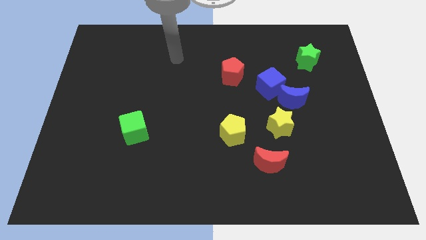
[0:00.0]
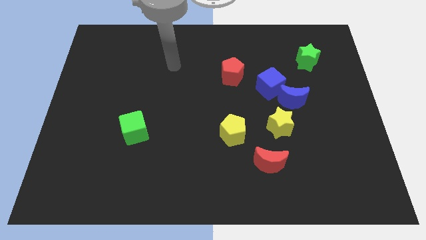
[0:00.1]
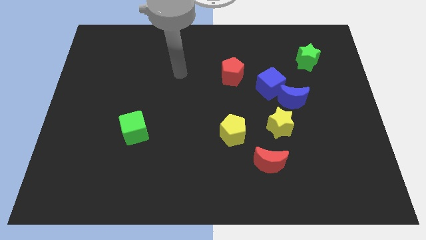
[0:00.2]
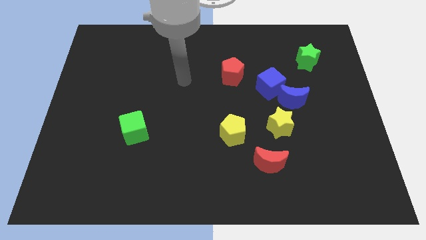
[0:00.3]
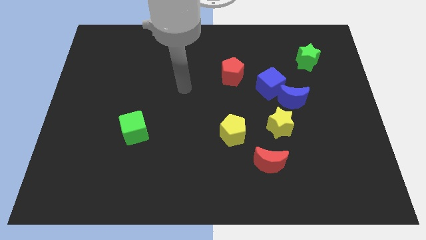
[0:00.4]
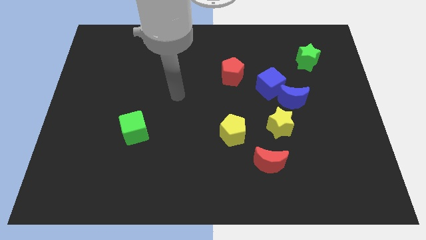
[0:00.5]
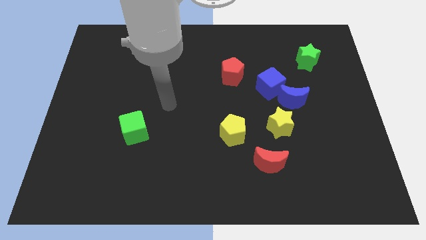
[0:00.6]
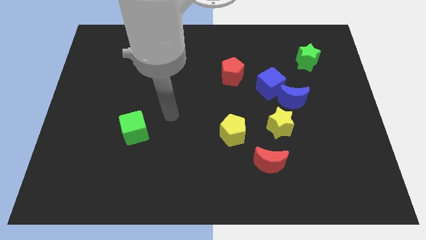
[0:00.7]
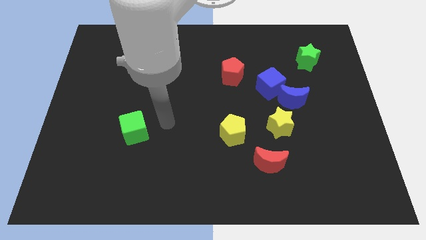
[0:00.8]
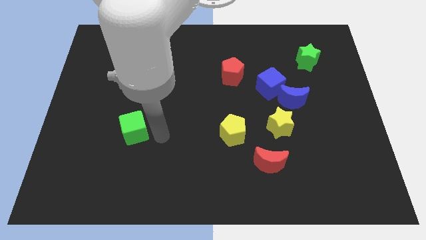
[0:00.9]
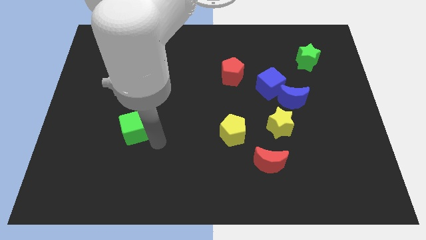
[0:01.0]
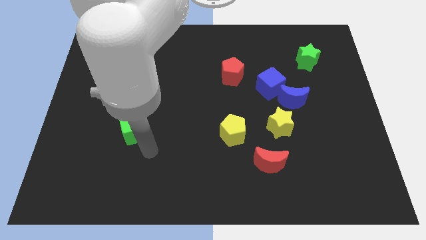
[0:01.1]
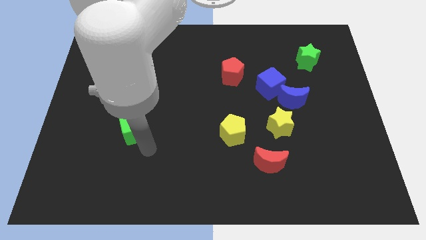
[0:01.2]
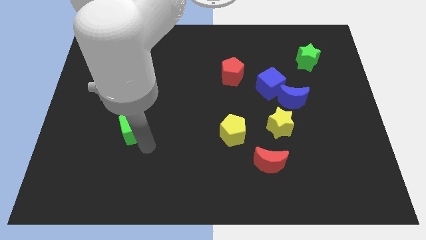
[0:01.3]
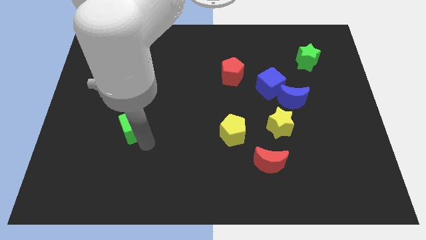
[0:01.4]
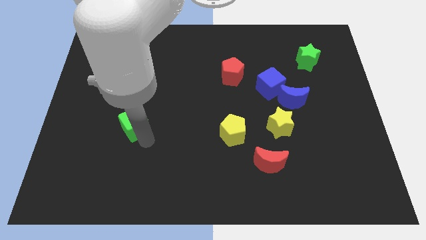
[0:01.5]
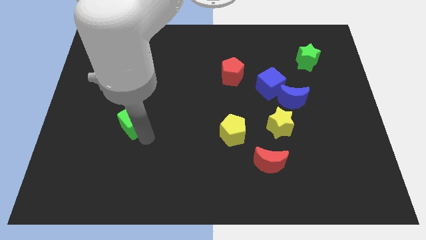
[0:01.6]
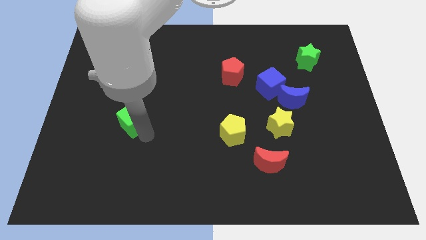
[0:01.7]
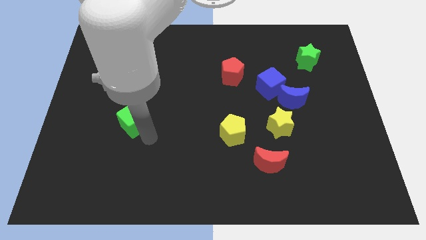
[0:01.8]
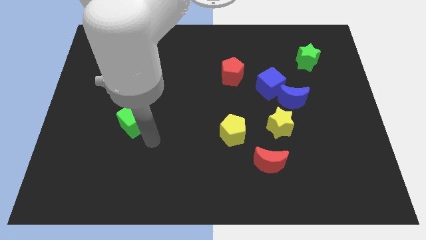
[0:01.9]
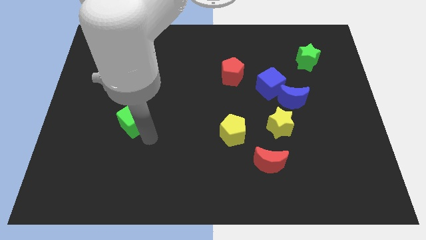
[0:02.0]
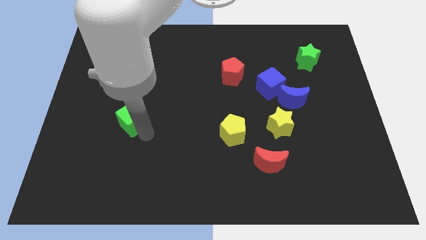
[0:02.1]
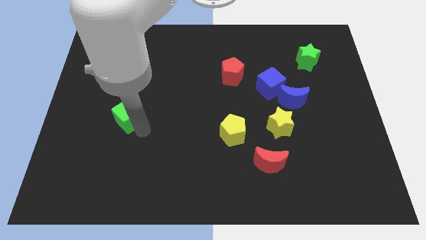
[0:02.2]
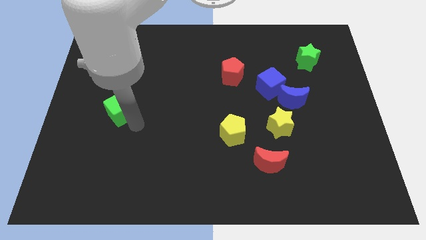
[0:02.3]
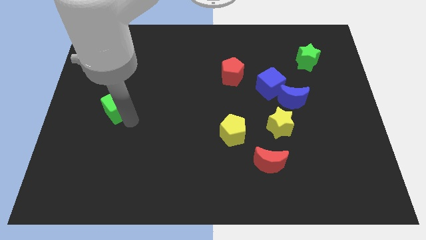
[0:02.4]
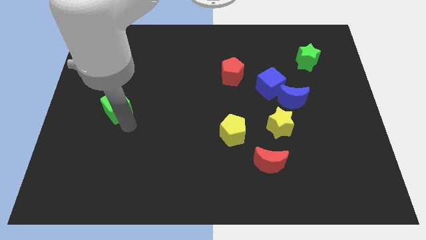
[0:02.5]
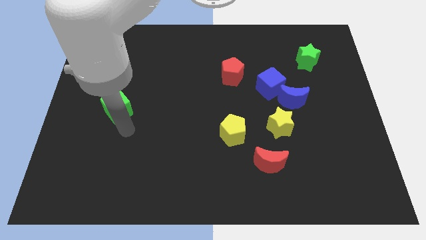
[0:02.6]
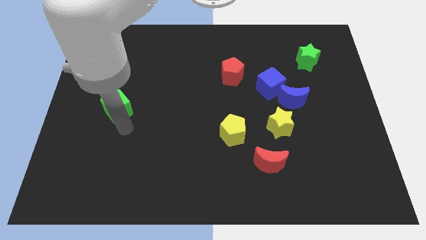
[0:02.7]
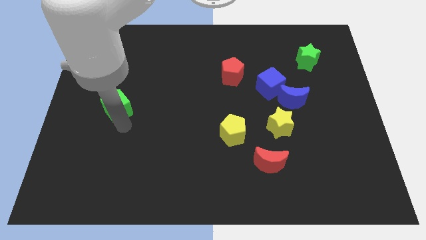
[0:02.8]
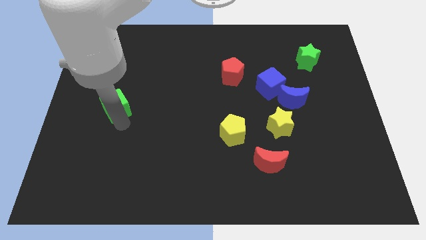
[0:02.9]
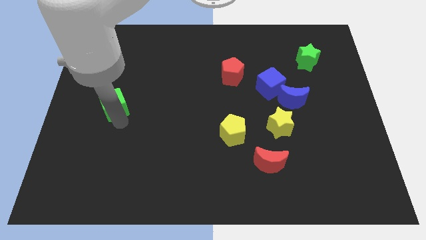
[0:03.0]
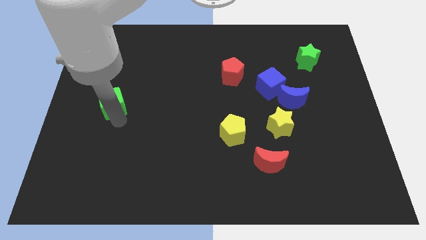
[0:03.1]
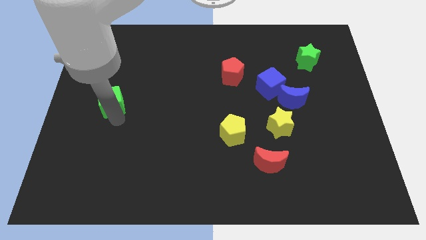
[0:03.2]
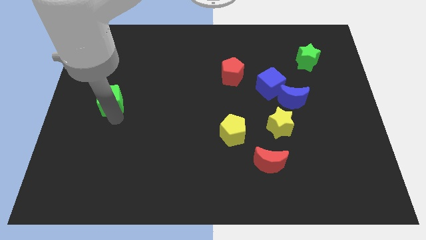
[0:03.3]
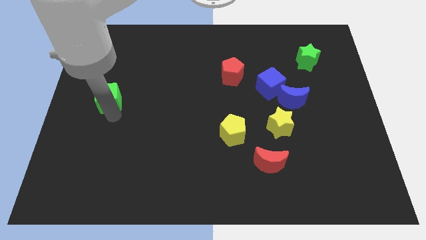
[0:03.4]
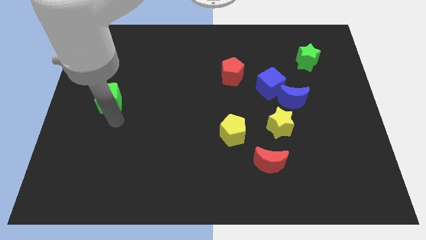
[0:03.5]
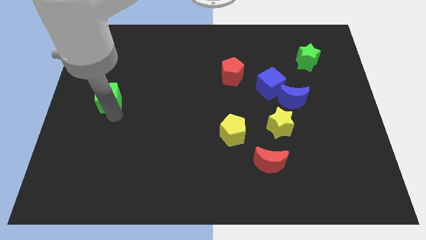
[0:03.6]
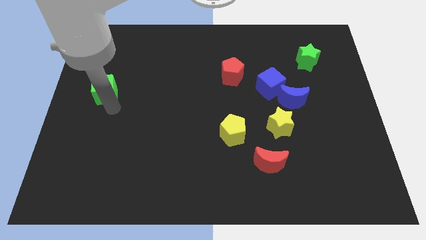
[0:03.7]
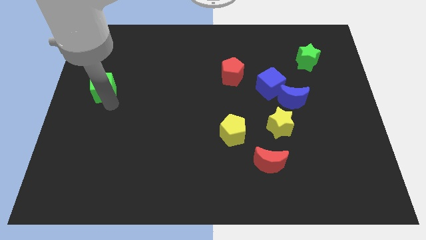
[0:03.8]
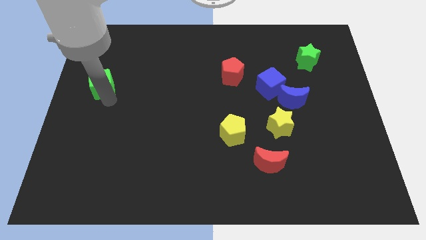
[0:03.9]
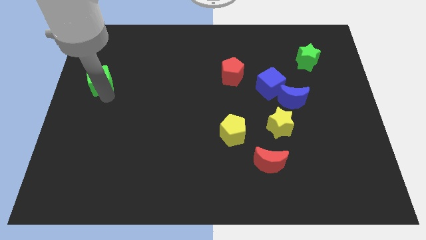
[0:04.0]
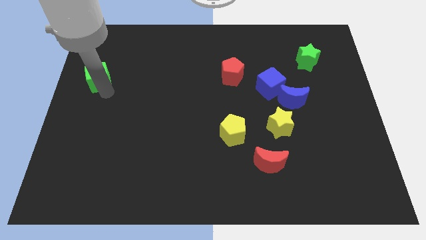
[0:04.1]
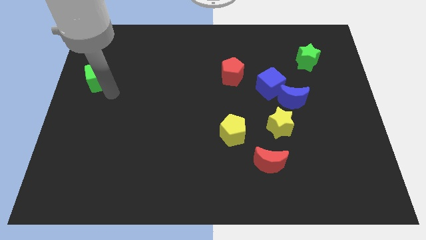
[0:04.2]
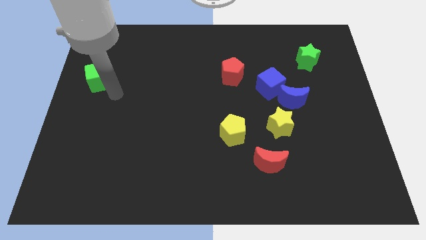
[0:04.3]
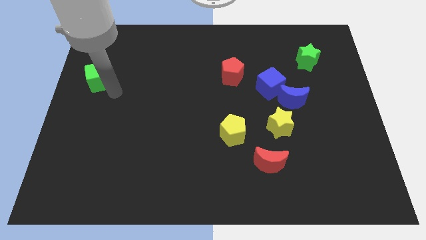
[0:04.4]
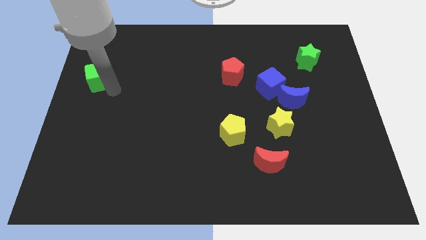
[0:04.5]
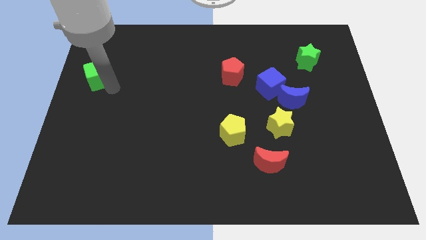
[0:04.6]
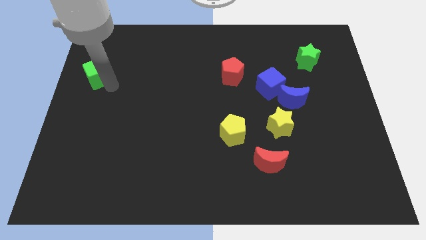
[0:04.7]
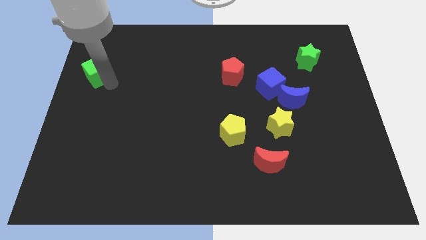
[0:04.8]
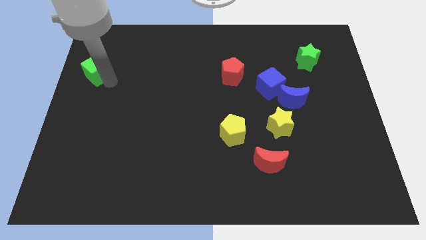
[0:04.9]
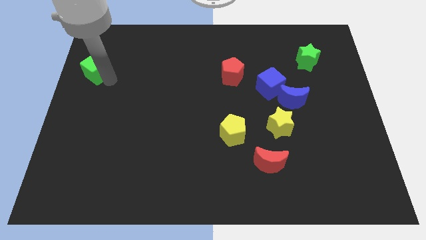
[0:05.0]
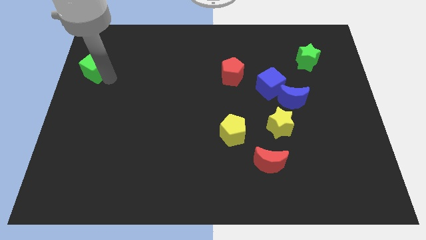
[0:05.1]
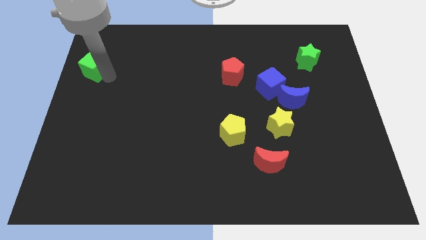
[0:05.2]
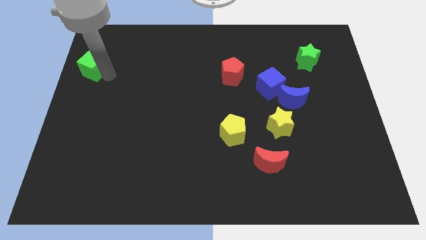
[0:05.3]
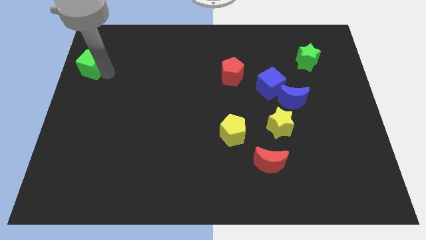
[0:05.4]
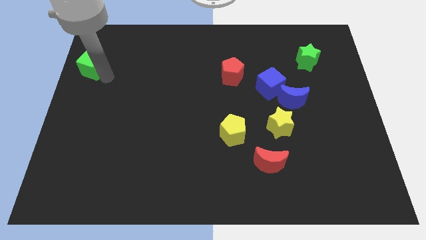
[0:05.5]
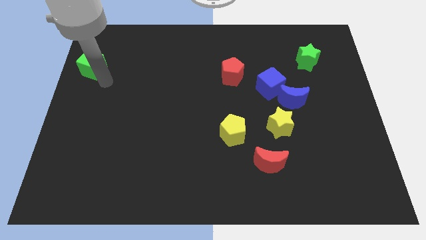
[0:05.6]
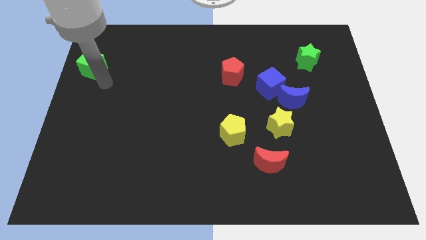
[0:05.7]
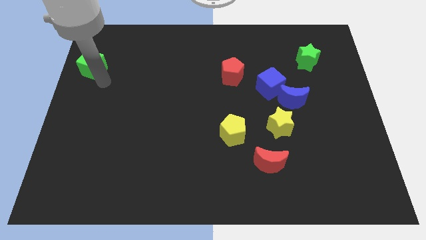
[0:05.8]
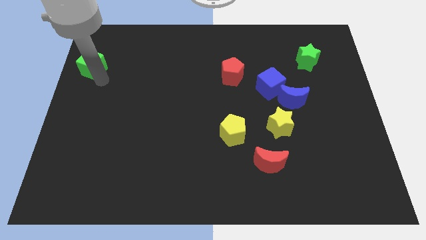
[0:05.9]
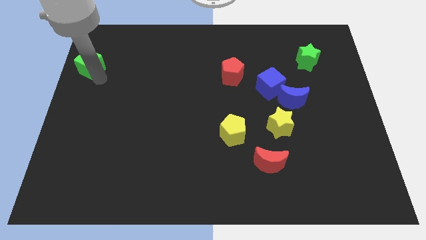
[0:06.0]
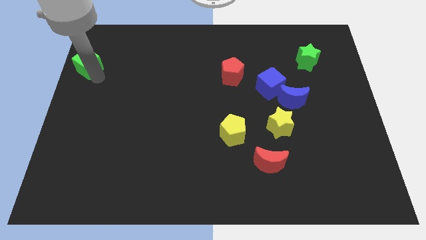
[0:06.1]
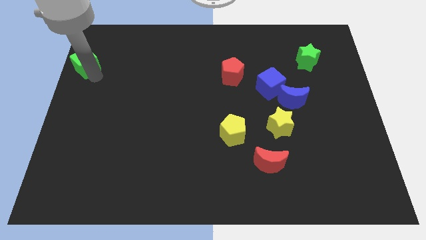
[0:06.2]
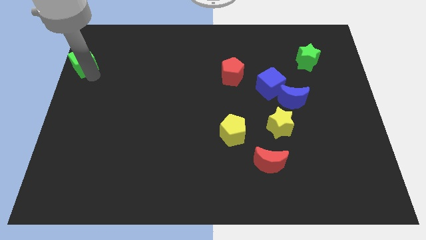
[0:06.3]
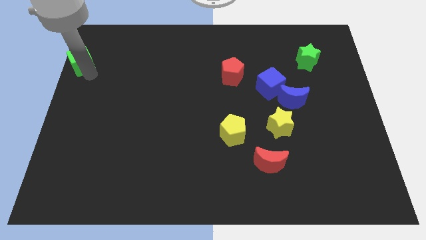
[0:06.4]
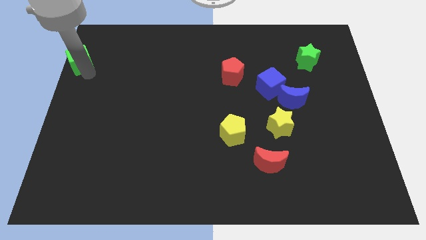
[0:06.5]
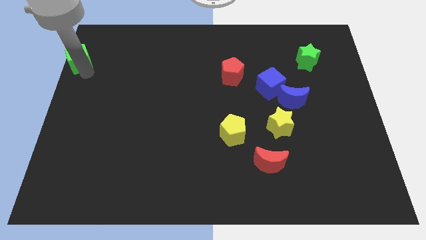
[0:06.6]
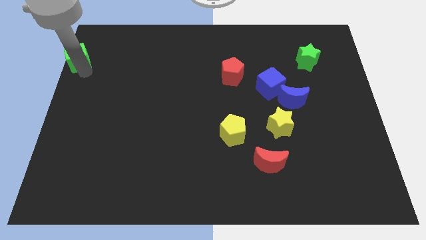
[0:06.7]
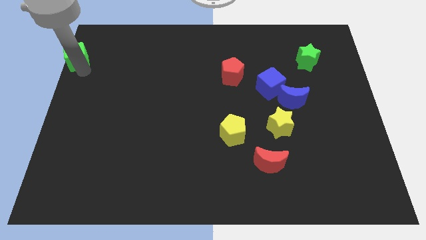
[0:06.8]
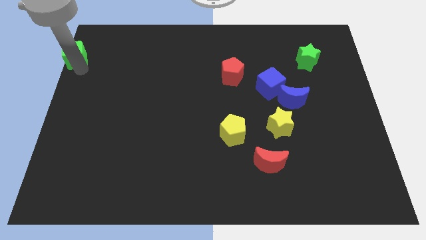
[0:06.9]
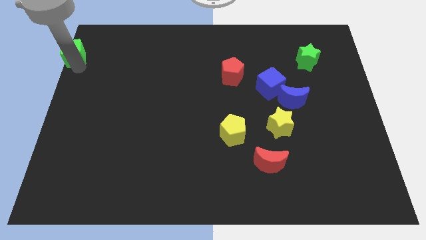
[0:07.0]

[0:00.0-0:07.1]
move the green cube to the upper left corner

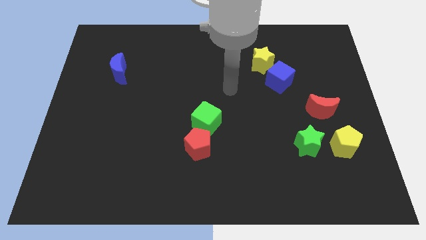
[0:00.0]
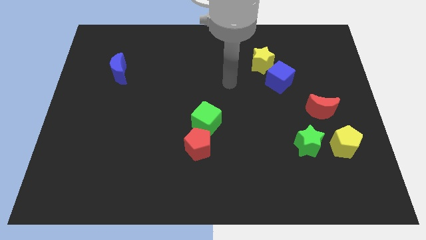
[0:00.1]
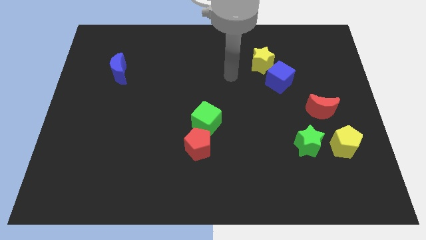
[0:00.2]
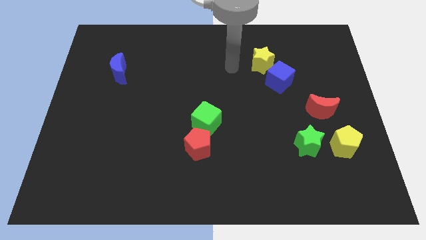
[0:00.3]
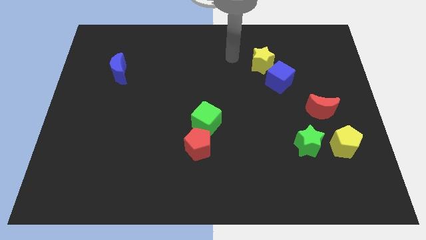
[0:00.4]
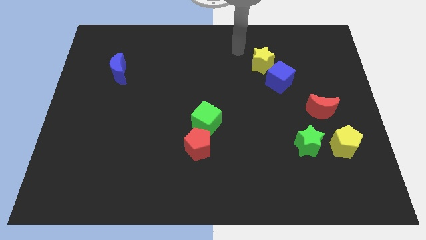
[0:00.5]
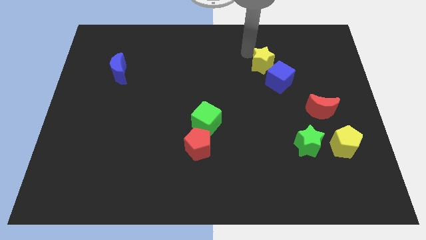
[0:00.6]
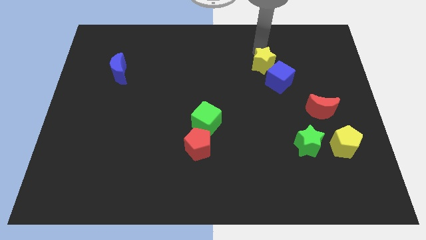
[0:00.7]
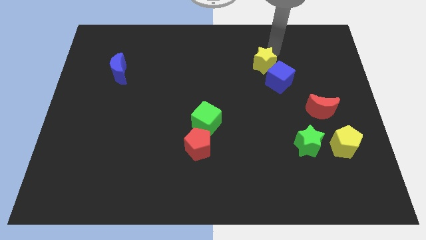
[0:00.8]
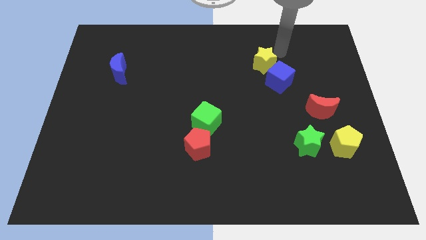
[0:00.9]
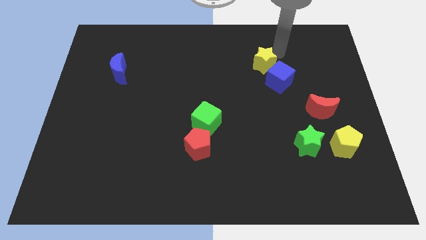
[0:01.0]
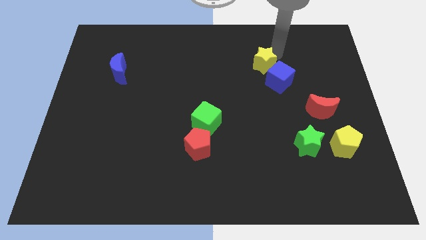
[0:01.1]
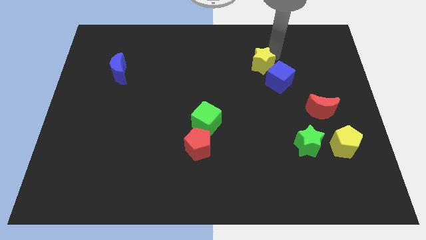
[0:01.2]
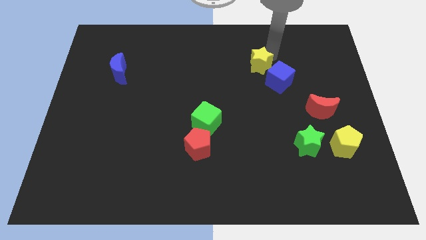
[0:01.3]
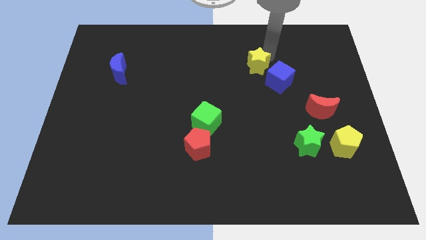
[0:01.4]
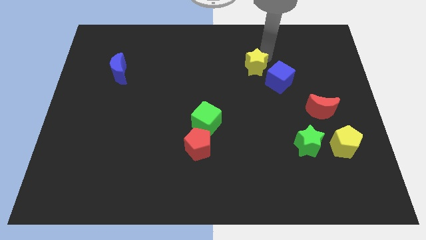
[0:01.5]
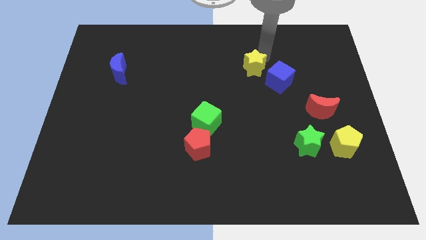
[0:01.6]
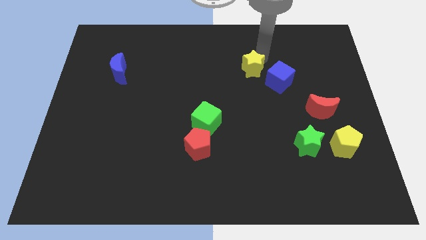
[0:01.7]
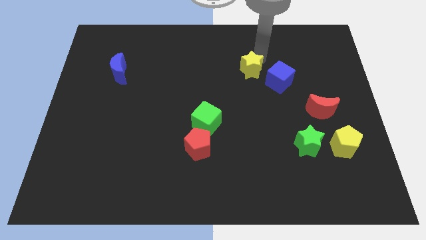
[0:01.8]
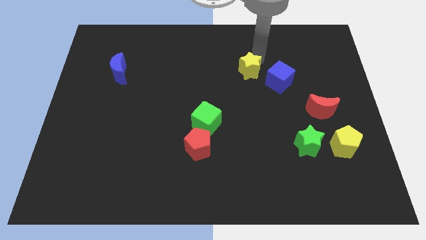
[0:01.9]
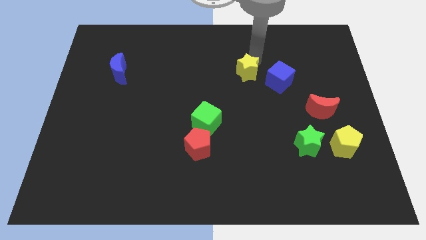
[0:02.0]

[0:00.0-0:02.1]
slide the yellow star to the middle of the board
